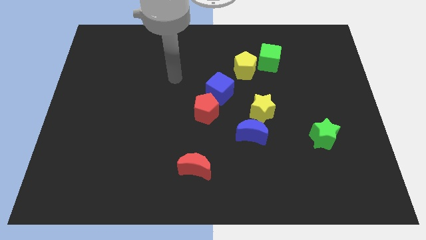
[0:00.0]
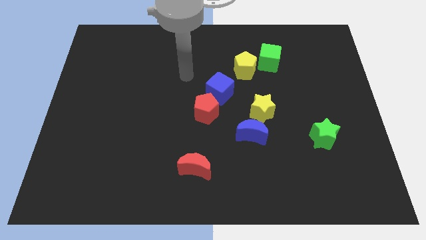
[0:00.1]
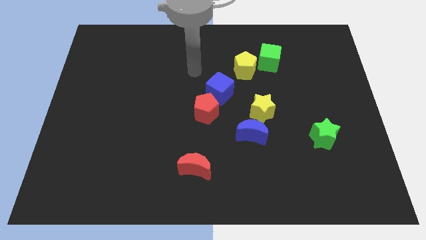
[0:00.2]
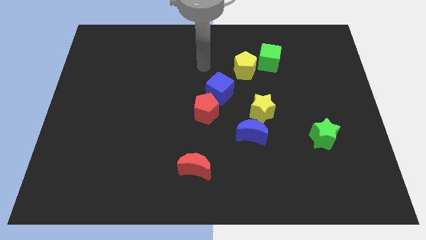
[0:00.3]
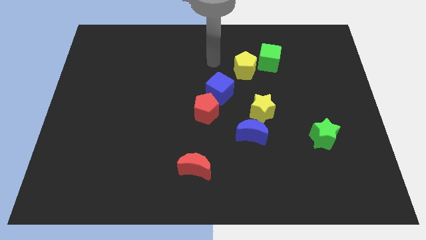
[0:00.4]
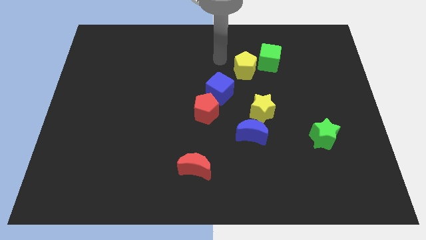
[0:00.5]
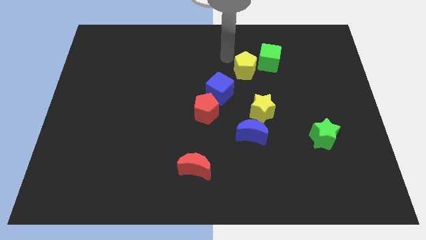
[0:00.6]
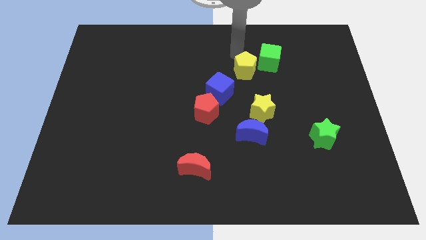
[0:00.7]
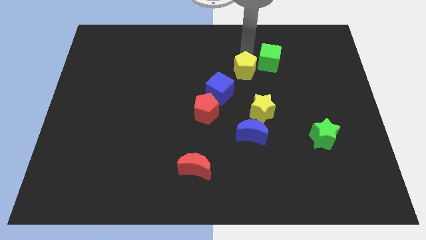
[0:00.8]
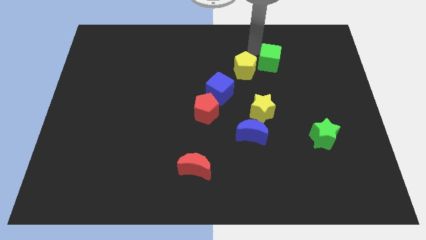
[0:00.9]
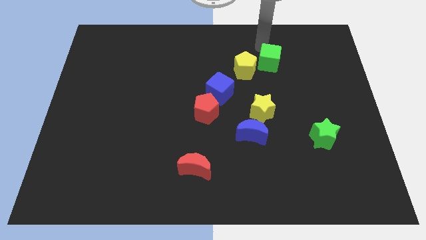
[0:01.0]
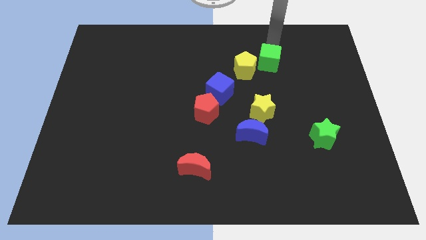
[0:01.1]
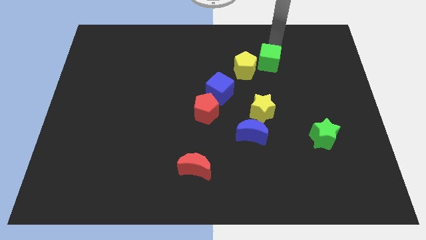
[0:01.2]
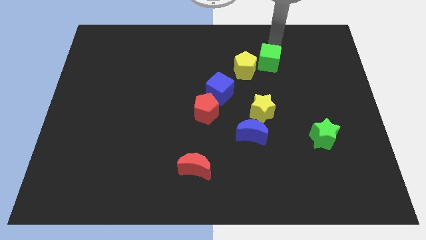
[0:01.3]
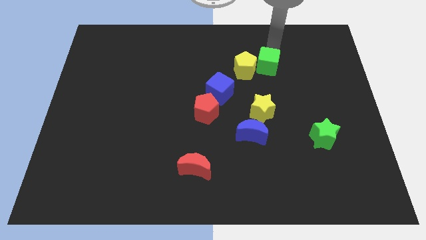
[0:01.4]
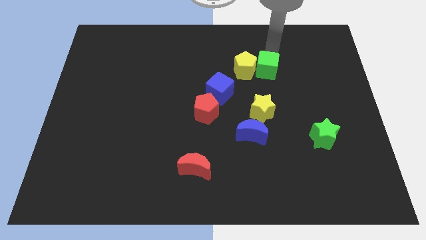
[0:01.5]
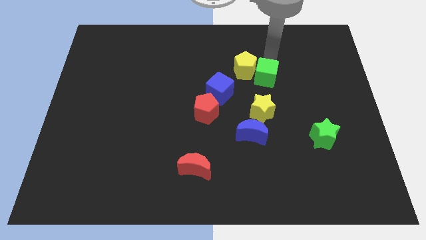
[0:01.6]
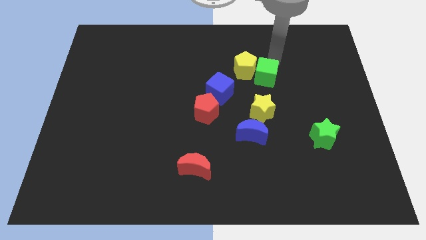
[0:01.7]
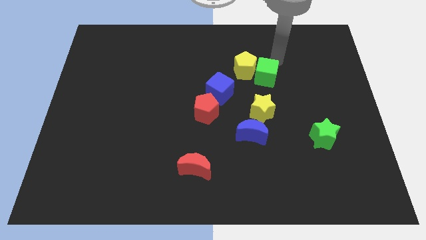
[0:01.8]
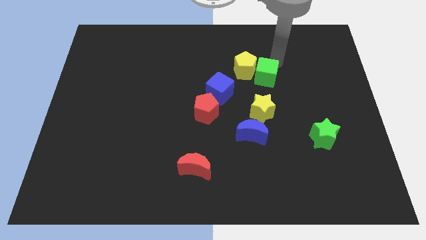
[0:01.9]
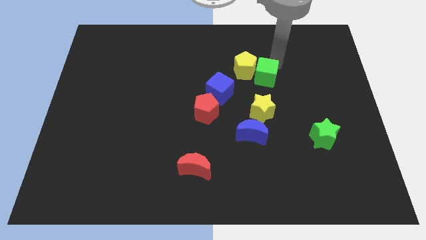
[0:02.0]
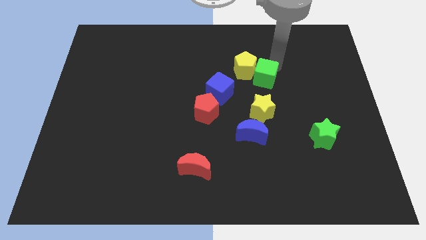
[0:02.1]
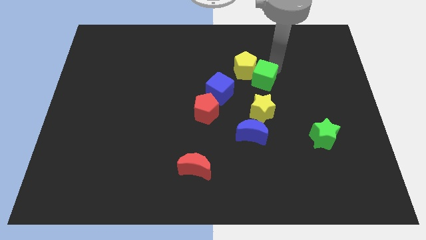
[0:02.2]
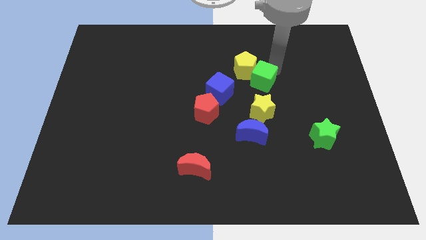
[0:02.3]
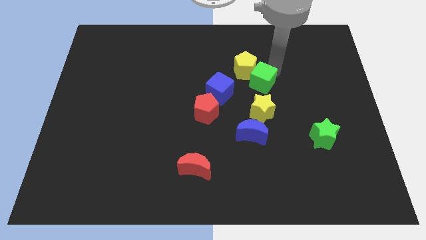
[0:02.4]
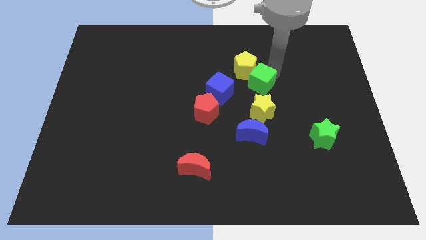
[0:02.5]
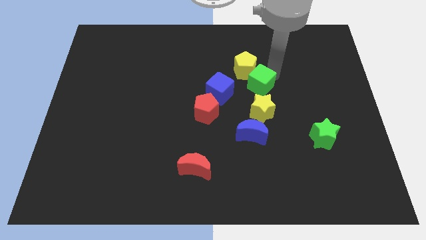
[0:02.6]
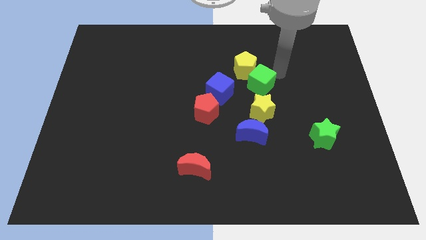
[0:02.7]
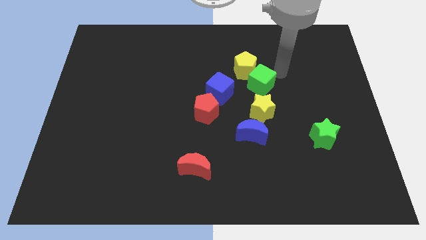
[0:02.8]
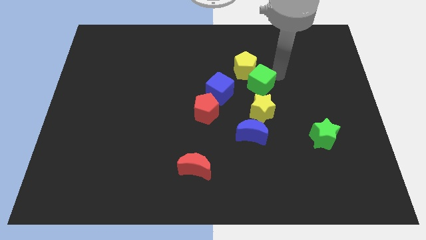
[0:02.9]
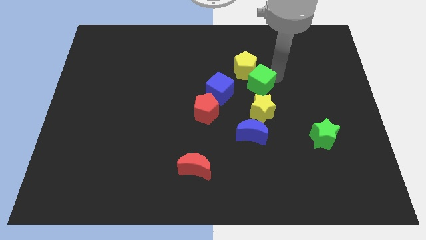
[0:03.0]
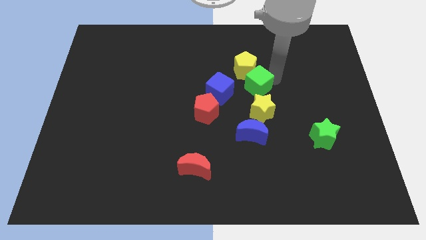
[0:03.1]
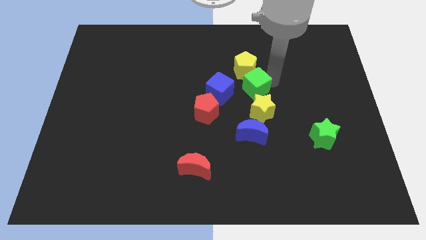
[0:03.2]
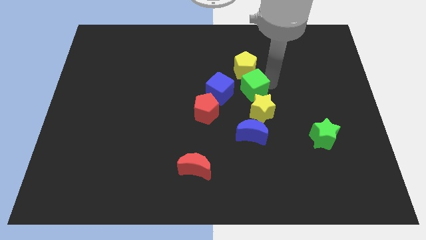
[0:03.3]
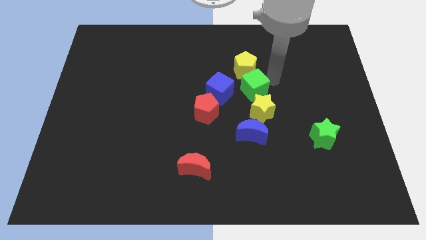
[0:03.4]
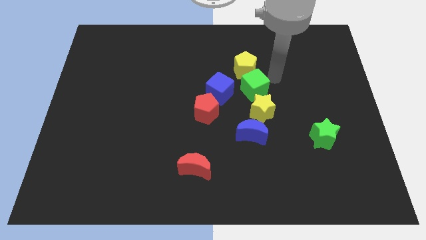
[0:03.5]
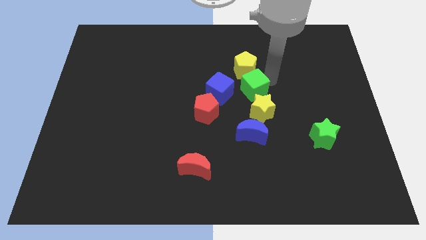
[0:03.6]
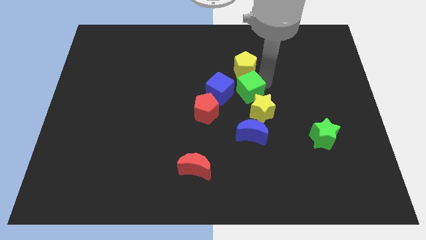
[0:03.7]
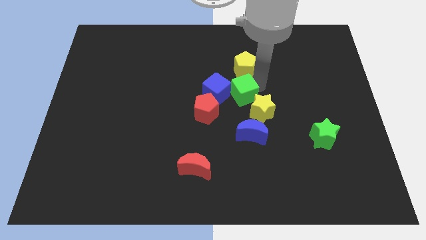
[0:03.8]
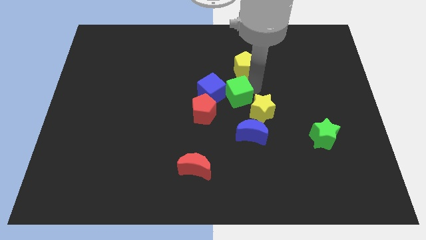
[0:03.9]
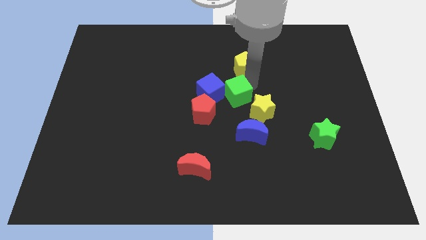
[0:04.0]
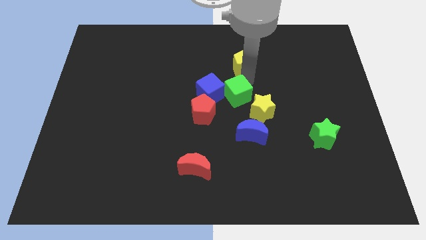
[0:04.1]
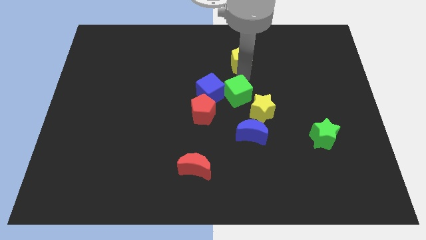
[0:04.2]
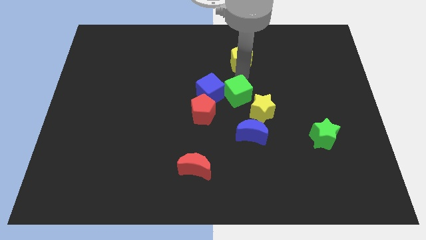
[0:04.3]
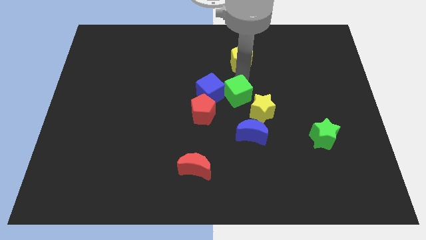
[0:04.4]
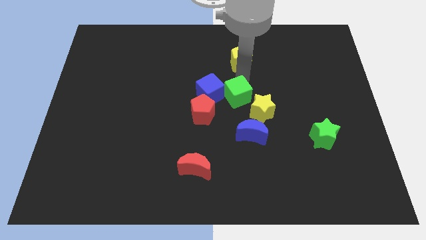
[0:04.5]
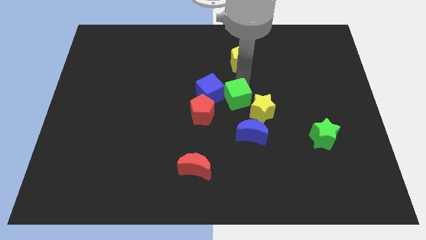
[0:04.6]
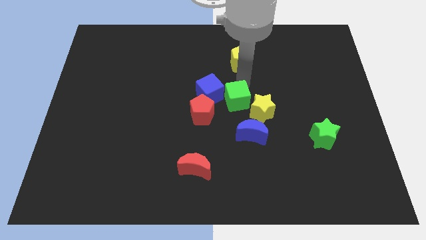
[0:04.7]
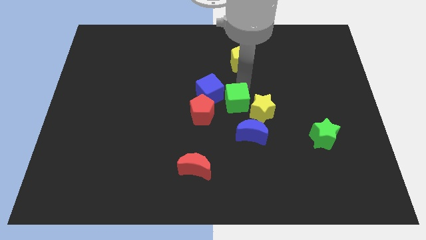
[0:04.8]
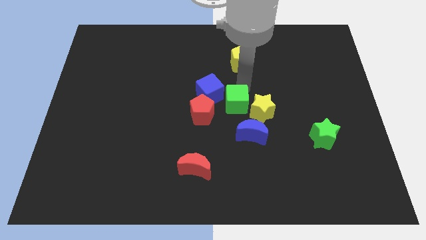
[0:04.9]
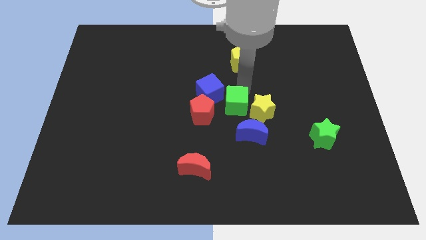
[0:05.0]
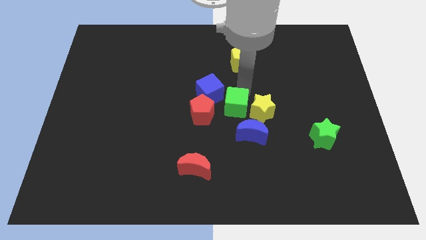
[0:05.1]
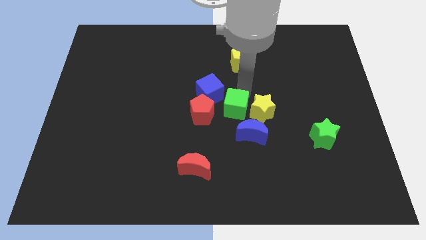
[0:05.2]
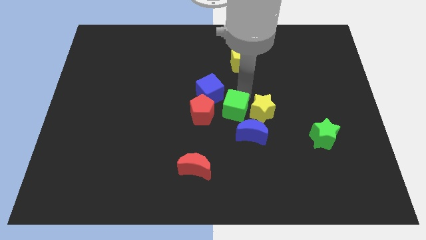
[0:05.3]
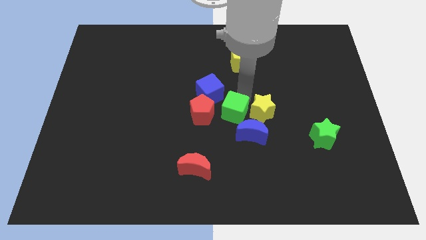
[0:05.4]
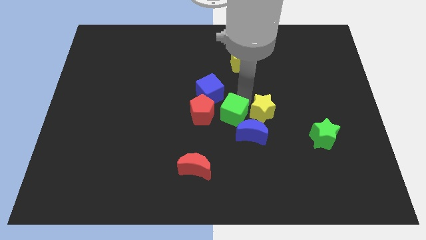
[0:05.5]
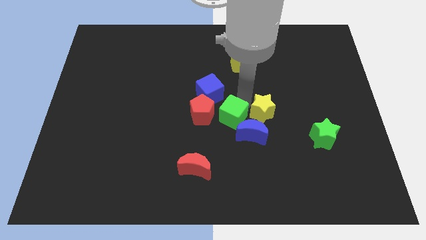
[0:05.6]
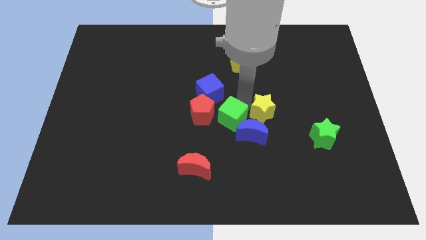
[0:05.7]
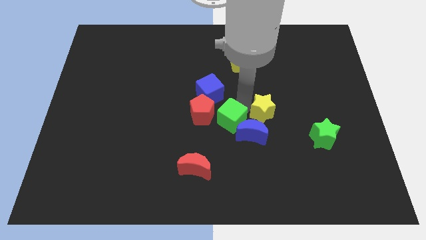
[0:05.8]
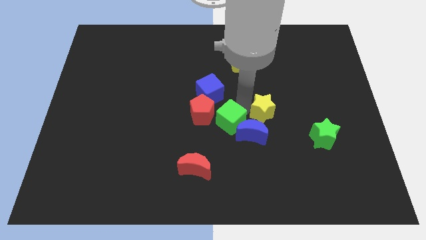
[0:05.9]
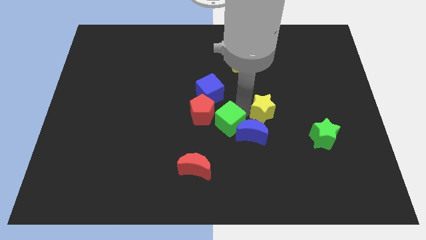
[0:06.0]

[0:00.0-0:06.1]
push the green cube diagonally downwards and to the left

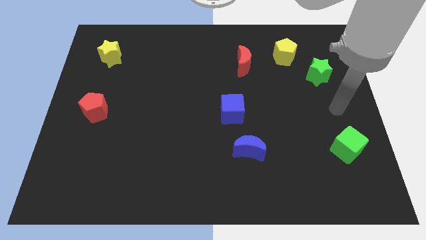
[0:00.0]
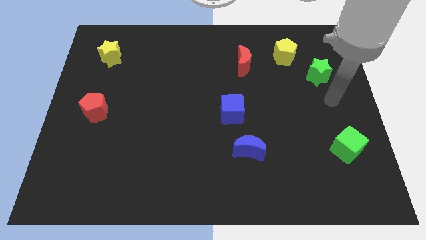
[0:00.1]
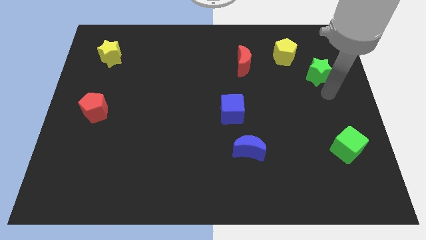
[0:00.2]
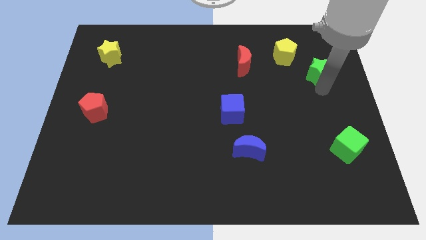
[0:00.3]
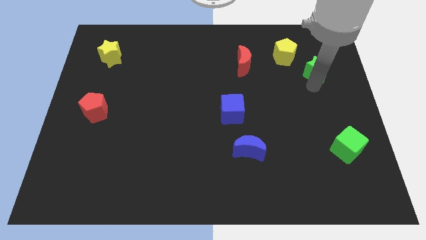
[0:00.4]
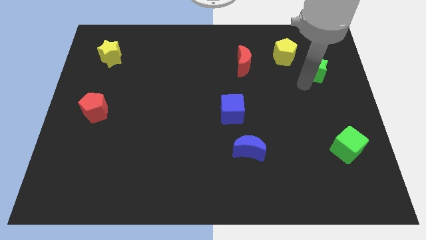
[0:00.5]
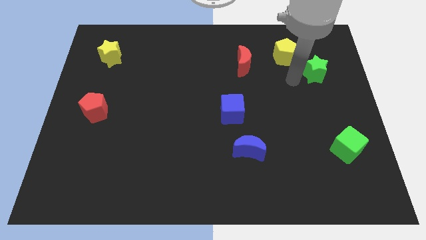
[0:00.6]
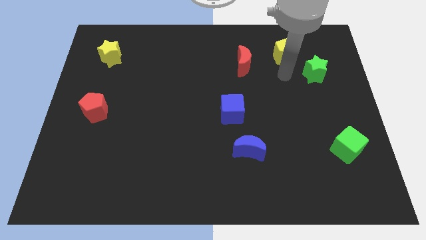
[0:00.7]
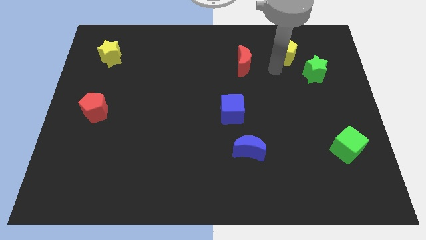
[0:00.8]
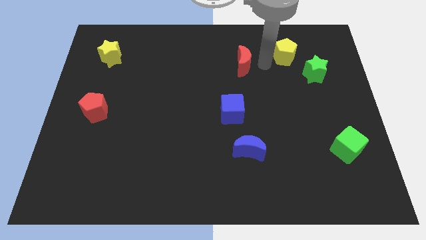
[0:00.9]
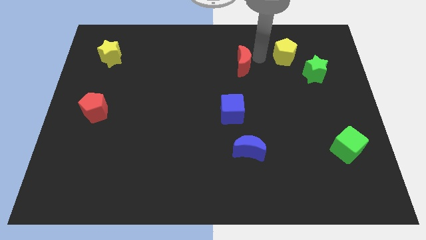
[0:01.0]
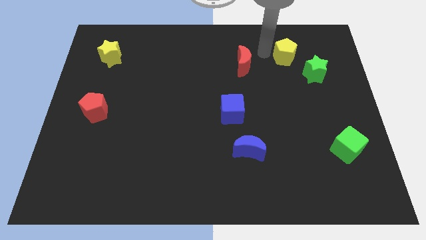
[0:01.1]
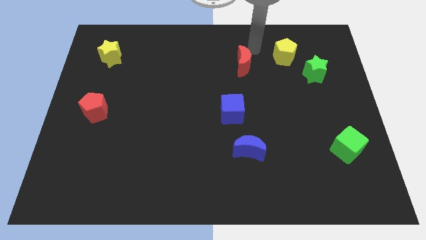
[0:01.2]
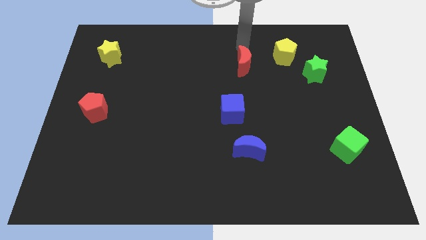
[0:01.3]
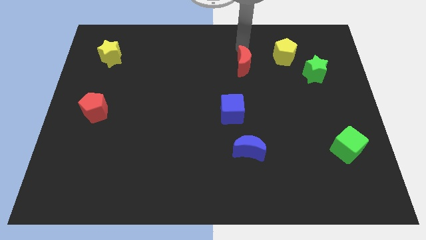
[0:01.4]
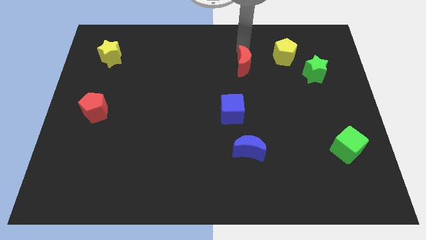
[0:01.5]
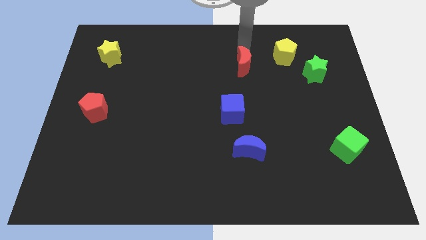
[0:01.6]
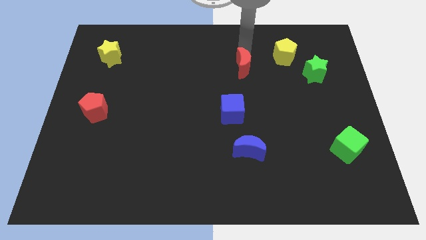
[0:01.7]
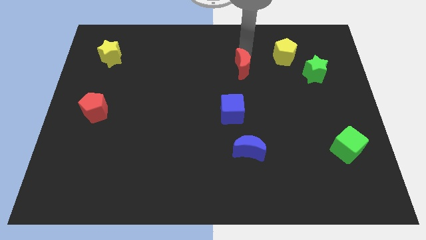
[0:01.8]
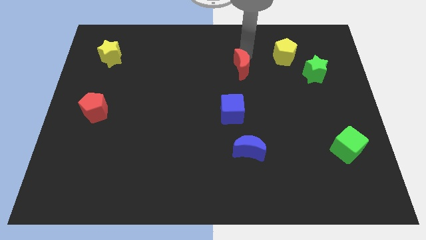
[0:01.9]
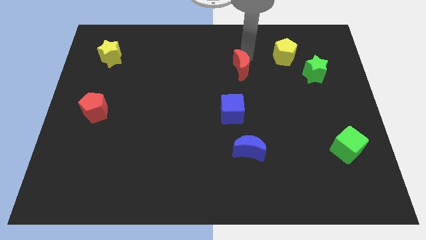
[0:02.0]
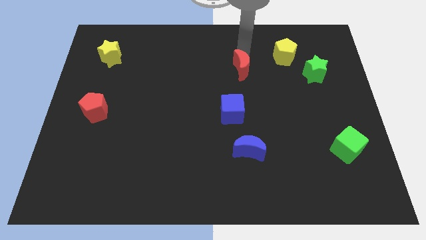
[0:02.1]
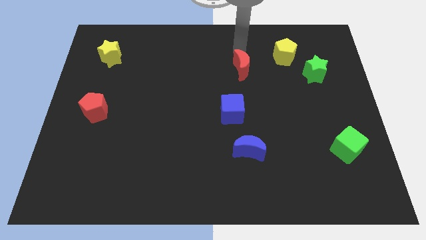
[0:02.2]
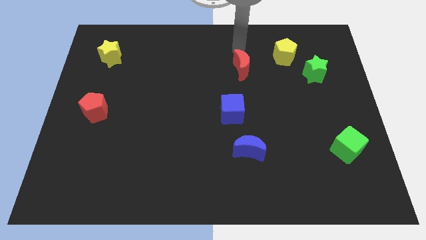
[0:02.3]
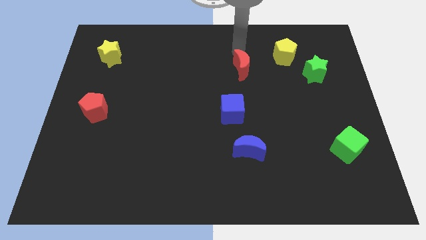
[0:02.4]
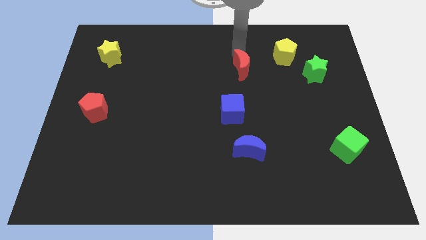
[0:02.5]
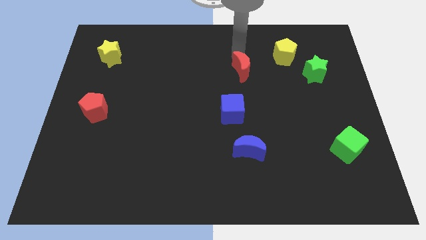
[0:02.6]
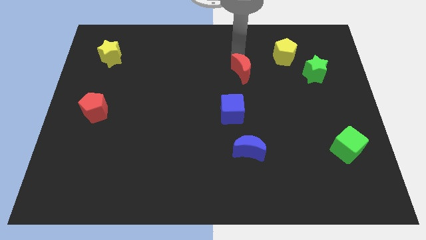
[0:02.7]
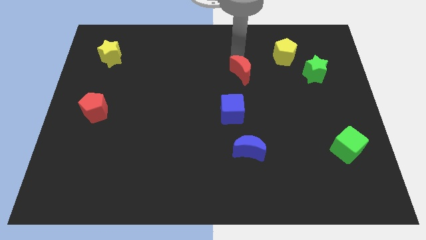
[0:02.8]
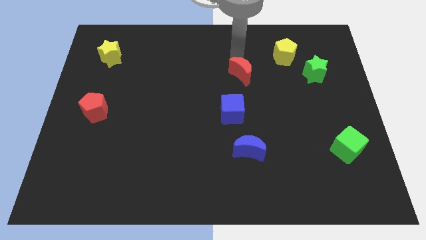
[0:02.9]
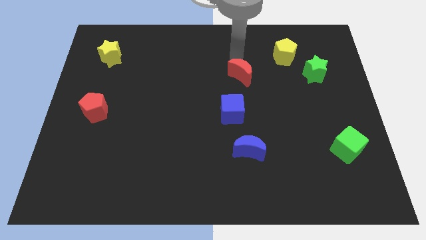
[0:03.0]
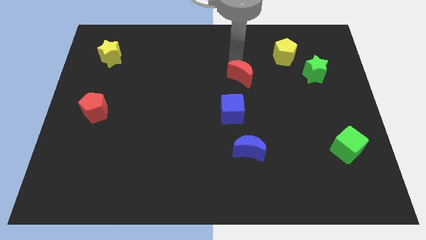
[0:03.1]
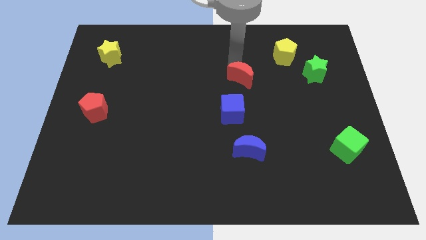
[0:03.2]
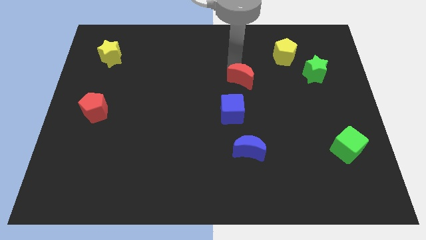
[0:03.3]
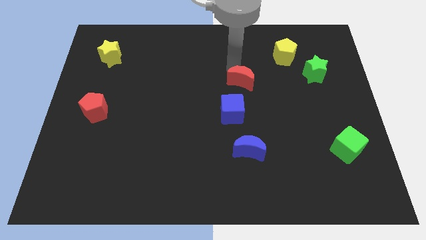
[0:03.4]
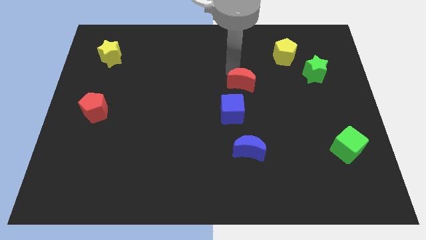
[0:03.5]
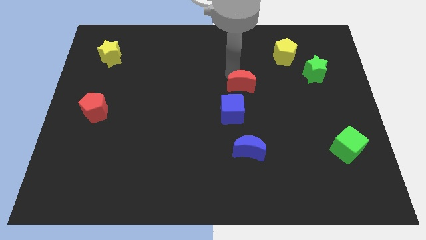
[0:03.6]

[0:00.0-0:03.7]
slightly slide the red moon down
